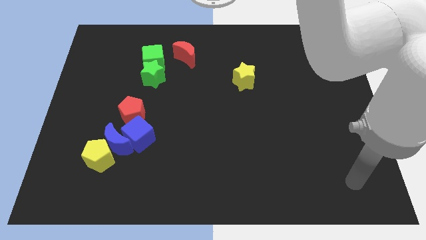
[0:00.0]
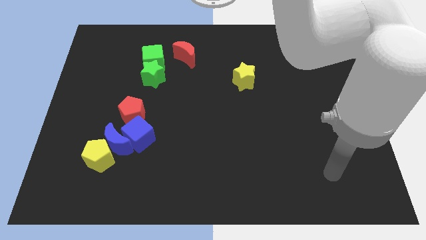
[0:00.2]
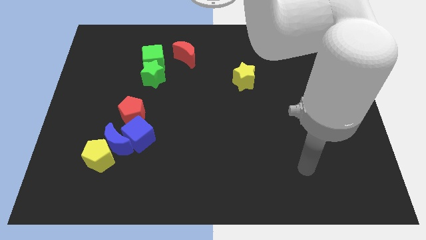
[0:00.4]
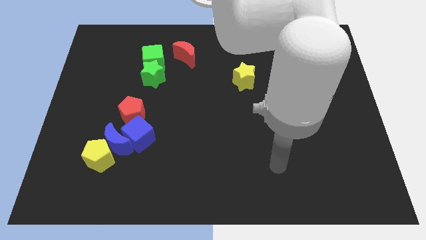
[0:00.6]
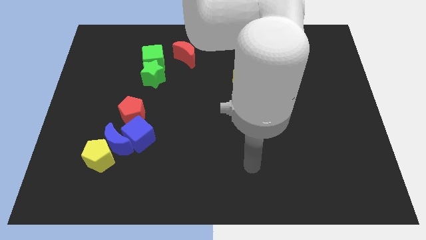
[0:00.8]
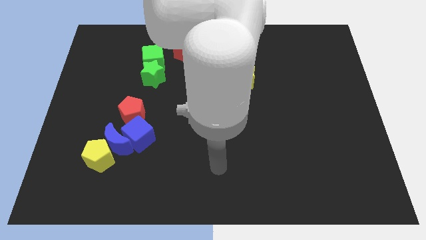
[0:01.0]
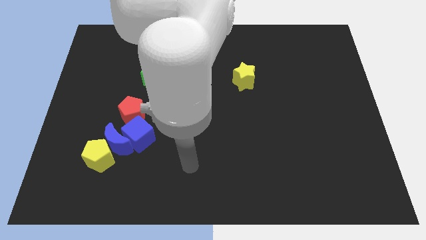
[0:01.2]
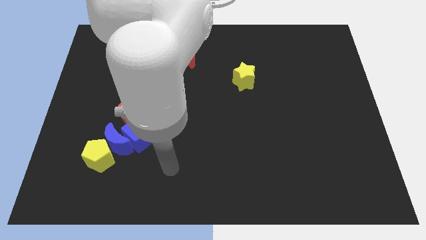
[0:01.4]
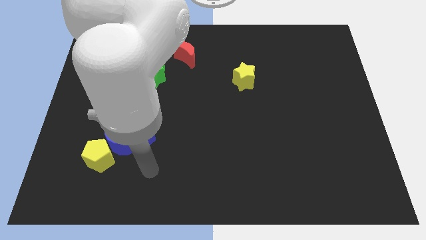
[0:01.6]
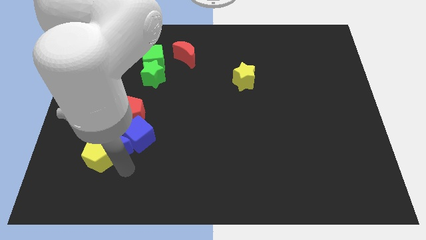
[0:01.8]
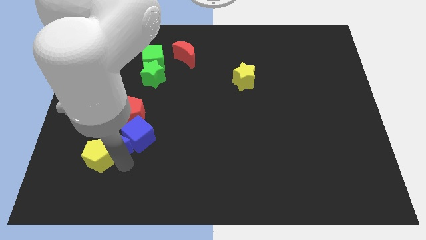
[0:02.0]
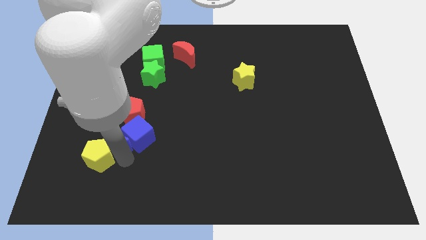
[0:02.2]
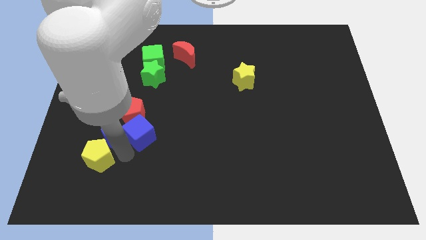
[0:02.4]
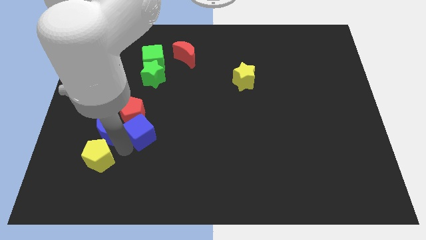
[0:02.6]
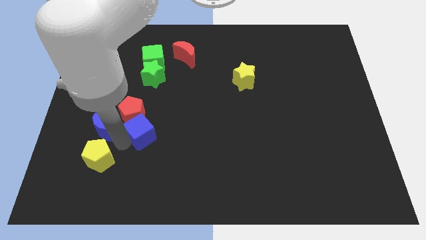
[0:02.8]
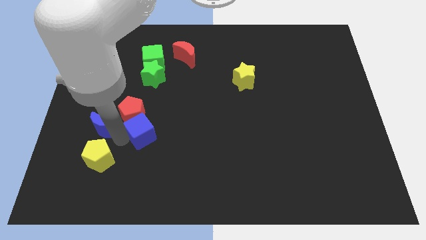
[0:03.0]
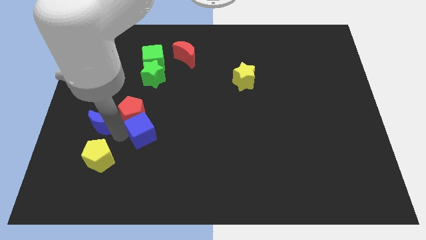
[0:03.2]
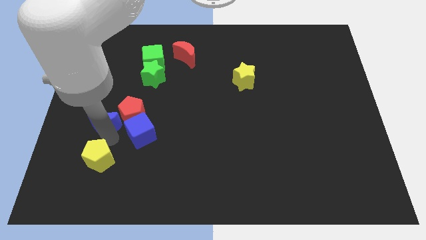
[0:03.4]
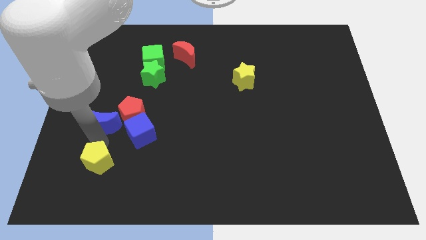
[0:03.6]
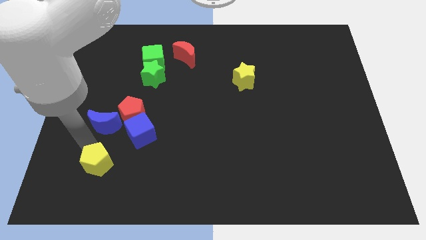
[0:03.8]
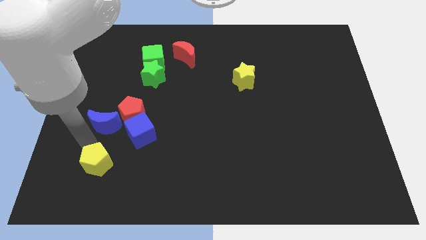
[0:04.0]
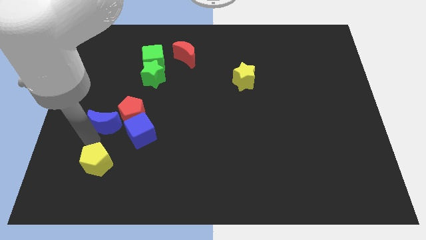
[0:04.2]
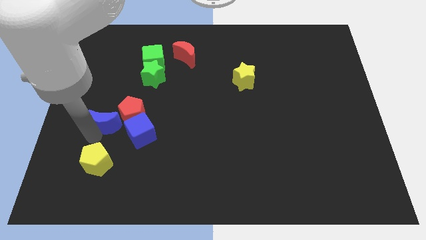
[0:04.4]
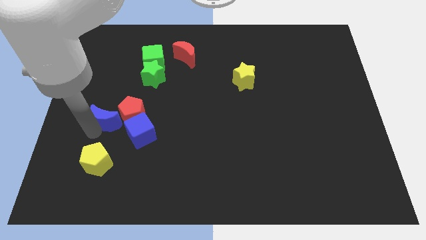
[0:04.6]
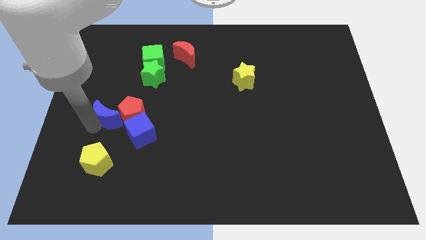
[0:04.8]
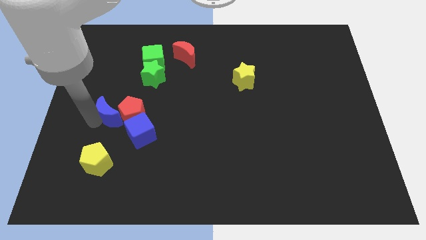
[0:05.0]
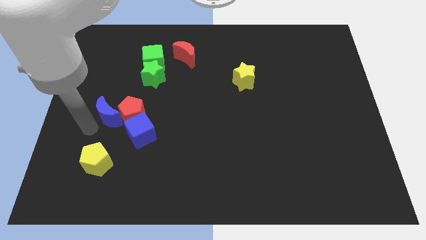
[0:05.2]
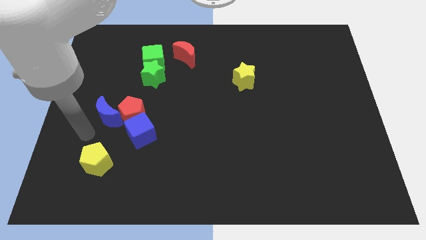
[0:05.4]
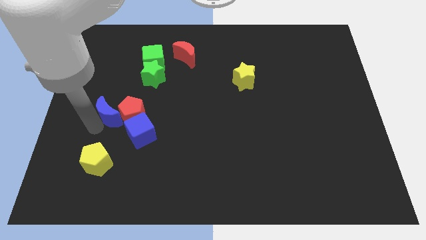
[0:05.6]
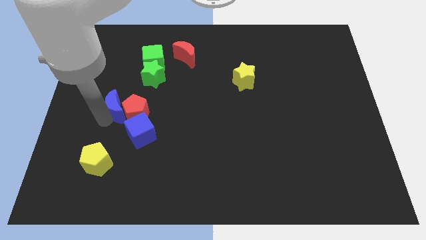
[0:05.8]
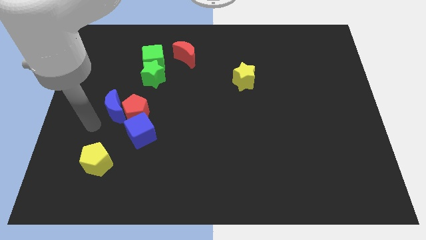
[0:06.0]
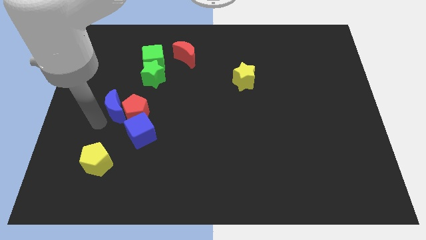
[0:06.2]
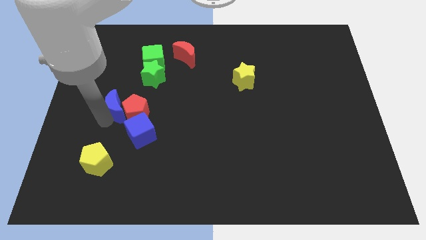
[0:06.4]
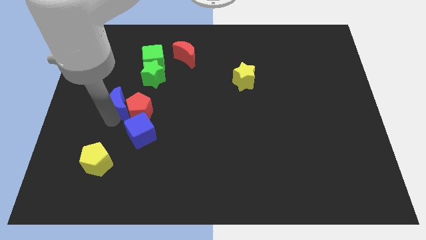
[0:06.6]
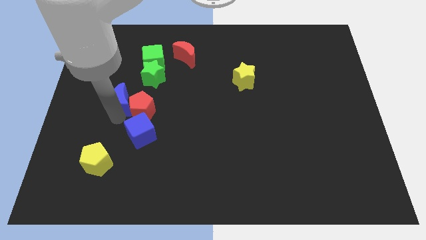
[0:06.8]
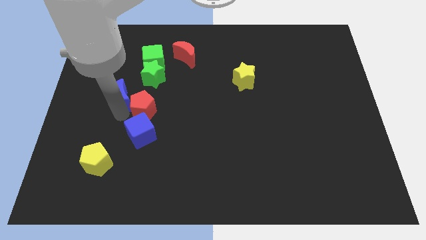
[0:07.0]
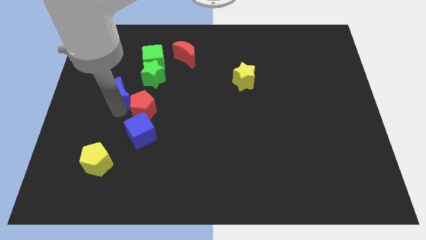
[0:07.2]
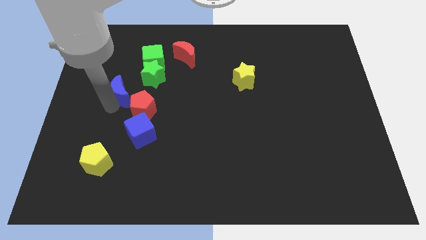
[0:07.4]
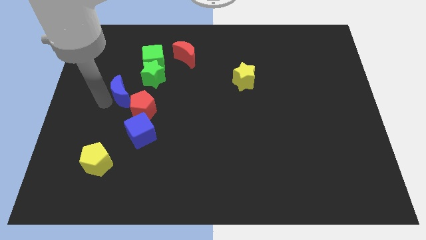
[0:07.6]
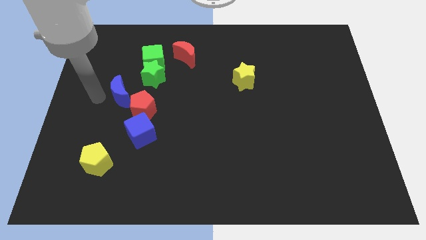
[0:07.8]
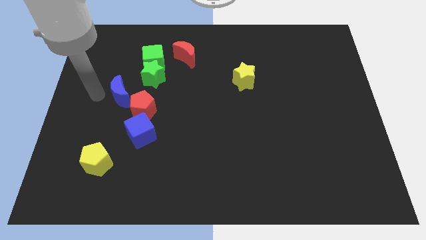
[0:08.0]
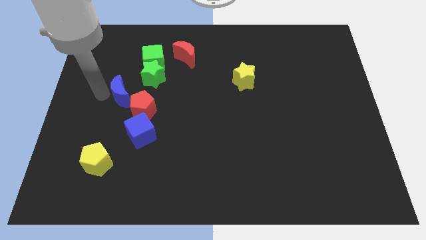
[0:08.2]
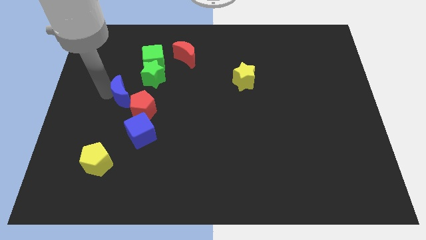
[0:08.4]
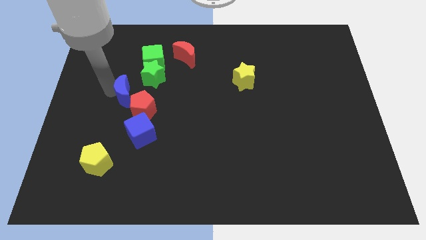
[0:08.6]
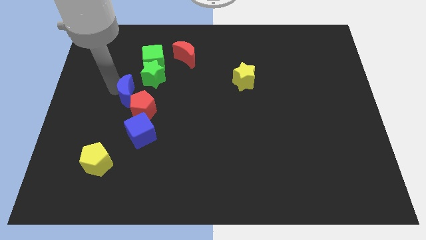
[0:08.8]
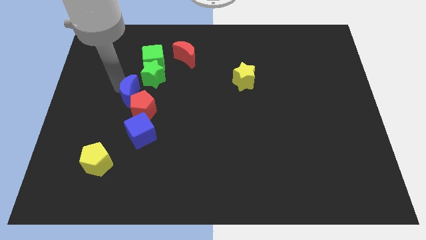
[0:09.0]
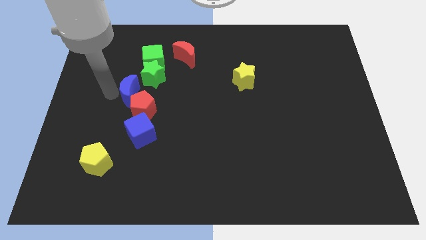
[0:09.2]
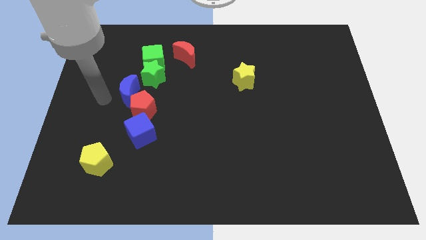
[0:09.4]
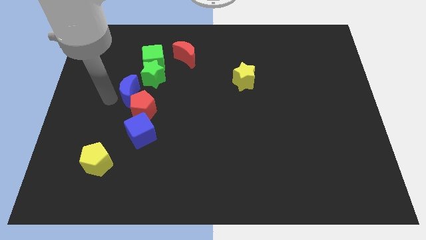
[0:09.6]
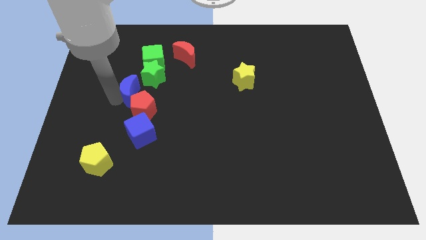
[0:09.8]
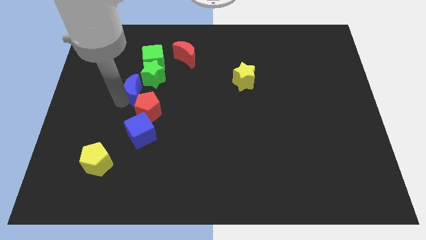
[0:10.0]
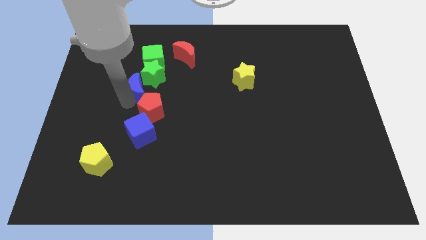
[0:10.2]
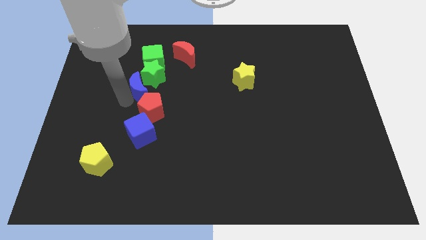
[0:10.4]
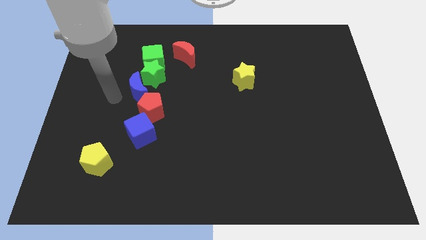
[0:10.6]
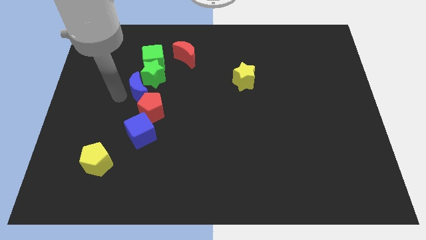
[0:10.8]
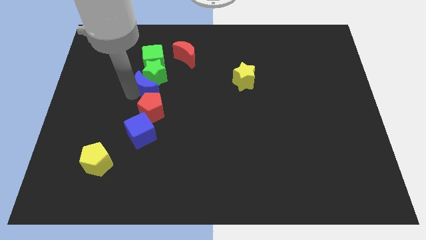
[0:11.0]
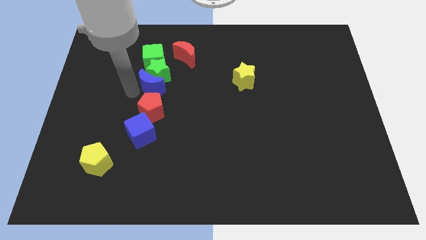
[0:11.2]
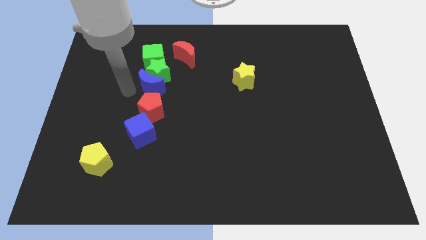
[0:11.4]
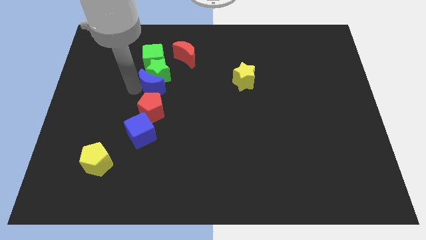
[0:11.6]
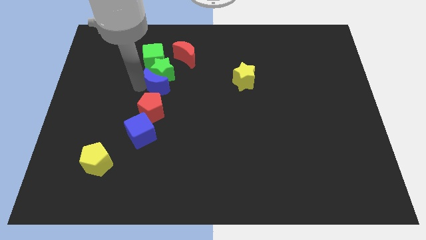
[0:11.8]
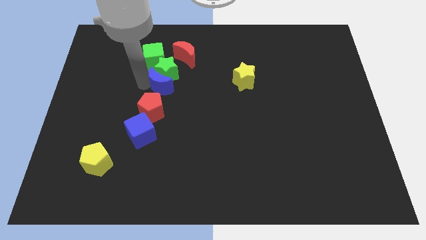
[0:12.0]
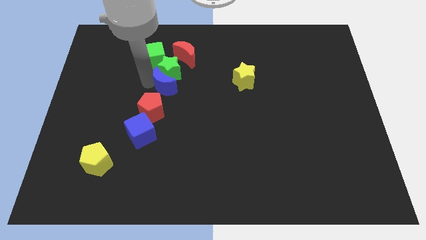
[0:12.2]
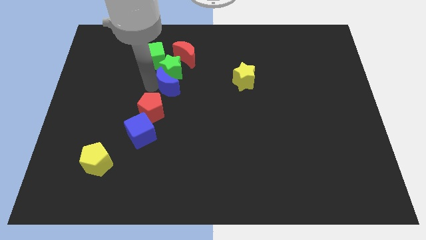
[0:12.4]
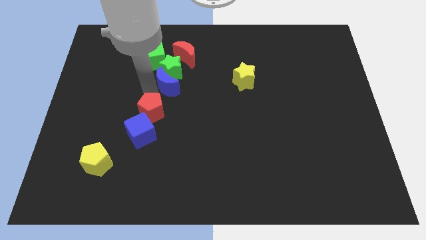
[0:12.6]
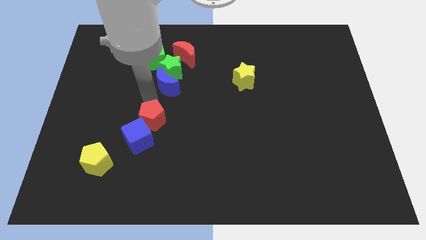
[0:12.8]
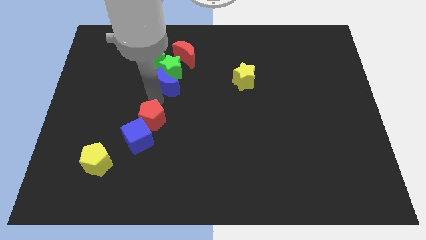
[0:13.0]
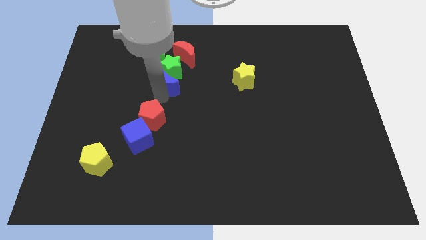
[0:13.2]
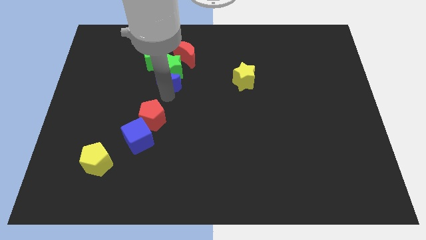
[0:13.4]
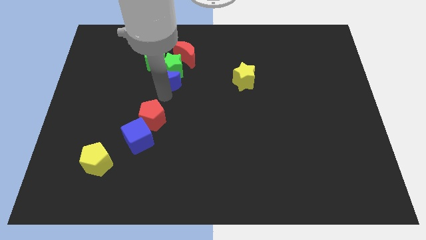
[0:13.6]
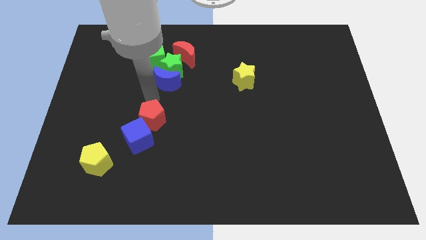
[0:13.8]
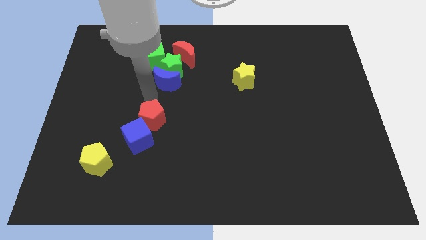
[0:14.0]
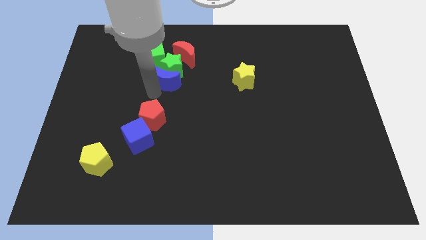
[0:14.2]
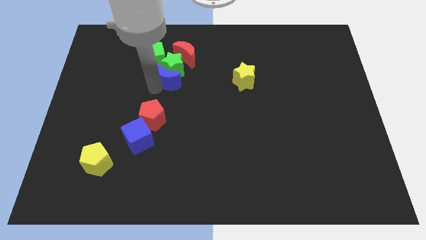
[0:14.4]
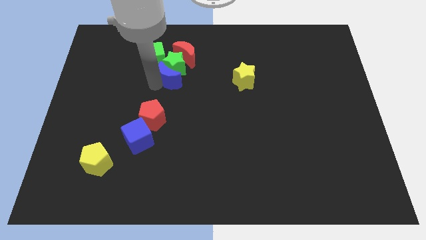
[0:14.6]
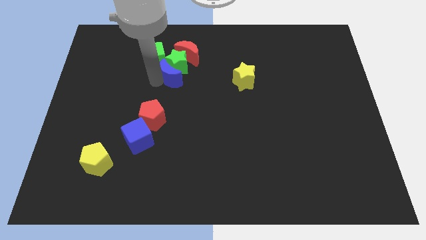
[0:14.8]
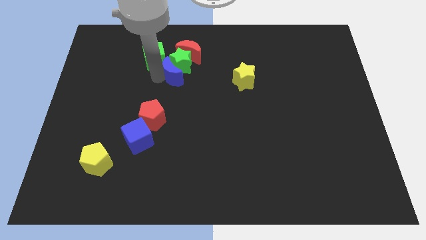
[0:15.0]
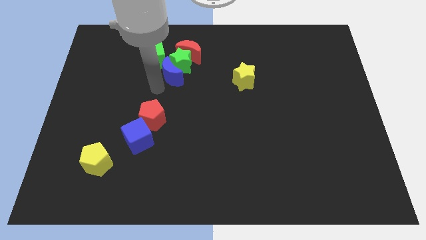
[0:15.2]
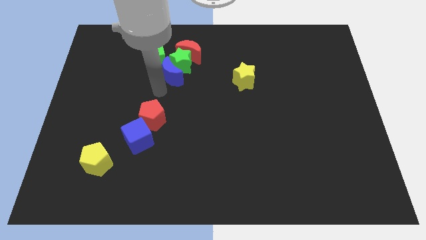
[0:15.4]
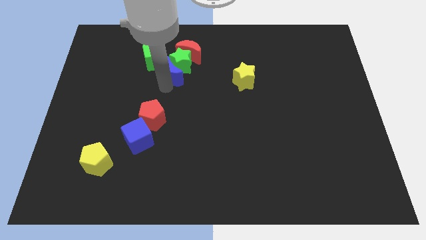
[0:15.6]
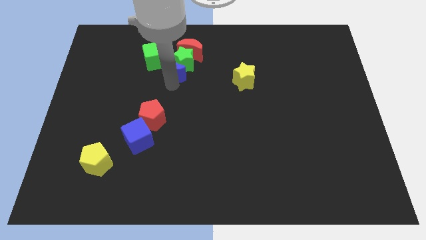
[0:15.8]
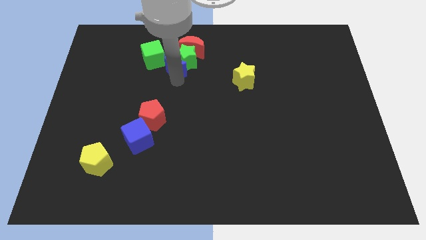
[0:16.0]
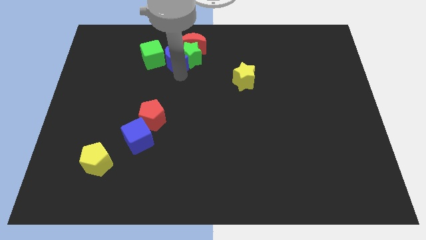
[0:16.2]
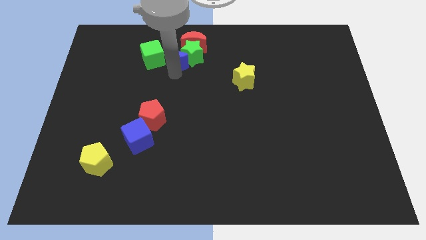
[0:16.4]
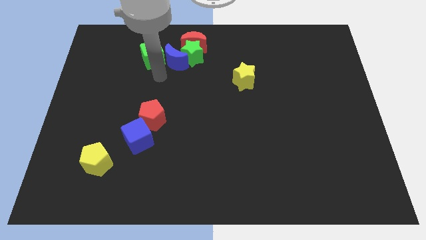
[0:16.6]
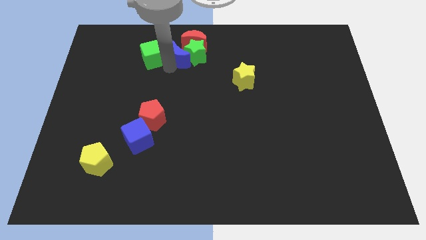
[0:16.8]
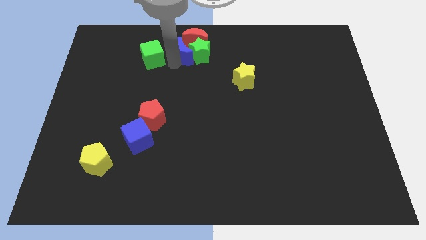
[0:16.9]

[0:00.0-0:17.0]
move the blue moon to the red moon
